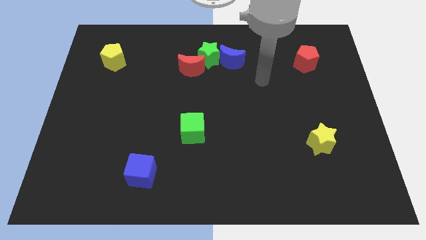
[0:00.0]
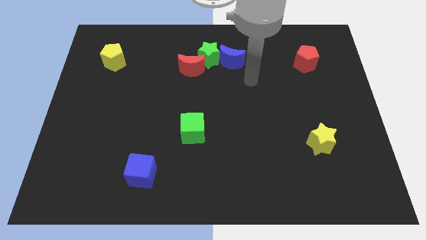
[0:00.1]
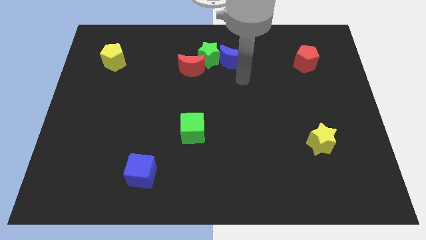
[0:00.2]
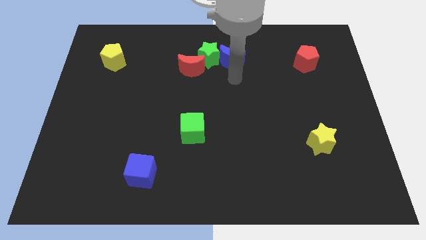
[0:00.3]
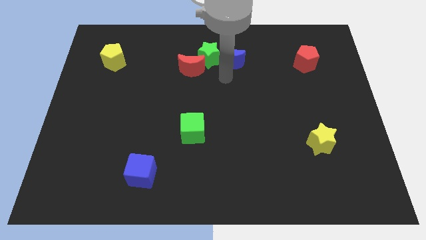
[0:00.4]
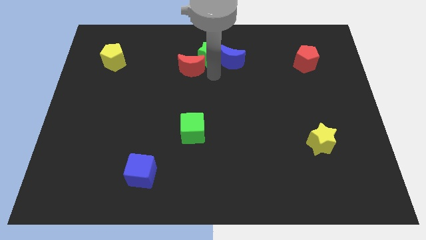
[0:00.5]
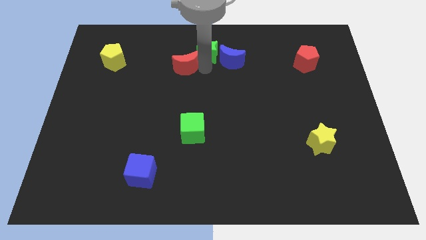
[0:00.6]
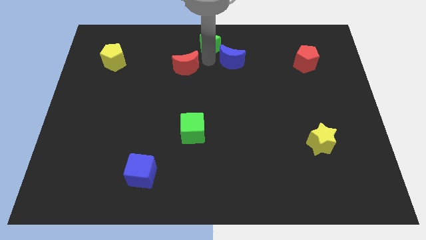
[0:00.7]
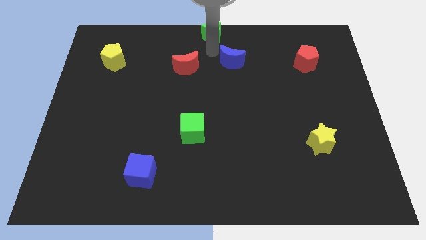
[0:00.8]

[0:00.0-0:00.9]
move the blue moon away from the green star

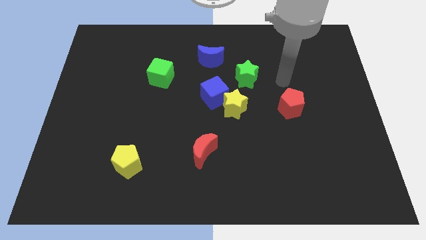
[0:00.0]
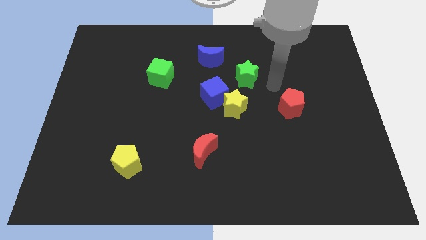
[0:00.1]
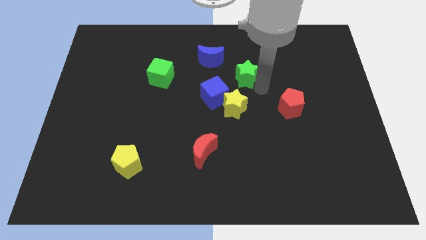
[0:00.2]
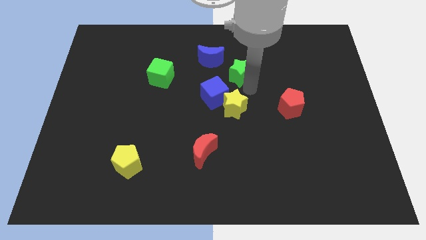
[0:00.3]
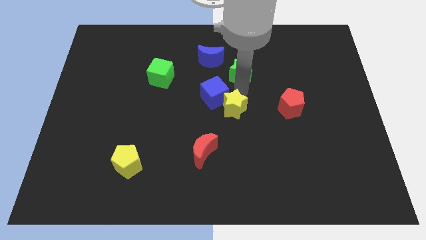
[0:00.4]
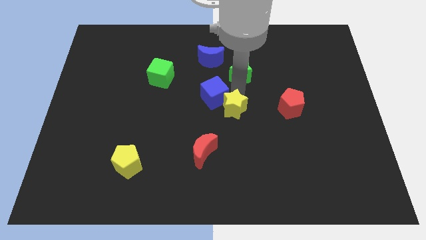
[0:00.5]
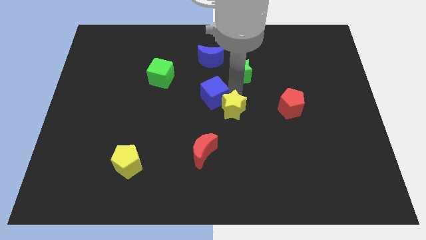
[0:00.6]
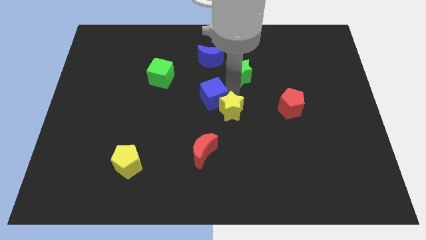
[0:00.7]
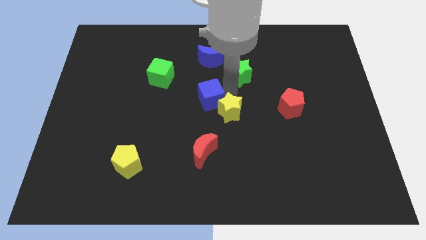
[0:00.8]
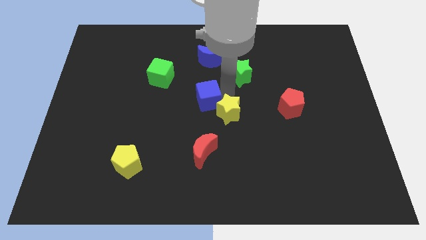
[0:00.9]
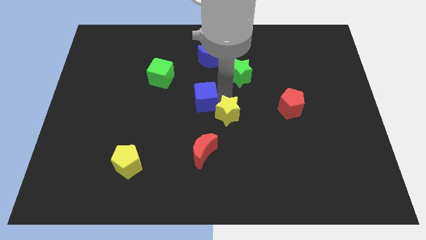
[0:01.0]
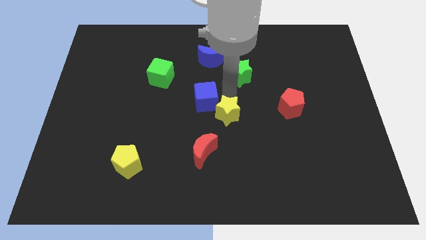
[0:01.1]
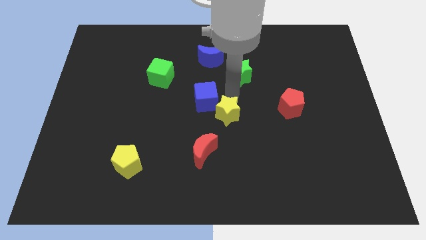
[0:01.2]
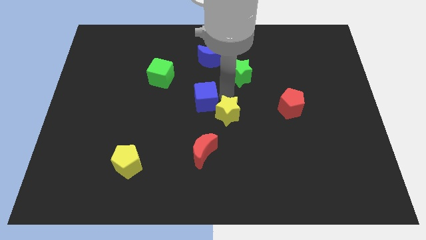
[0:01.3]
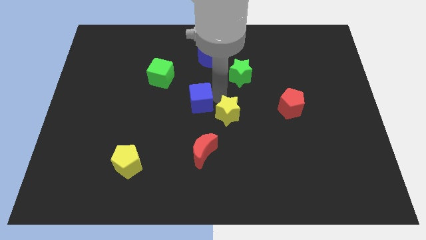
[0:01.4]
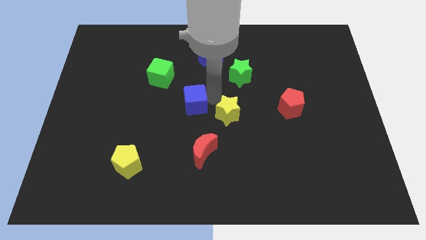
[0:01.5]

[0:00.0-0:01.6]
separate the blue cube from the yellow star and green star

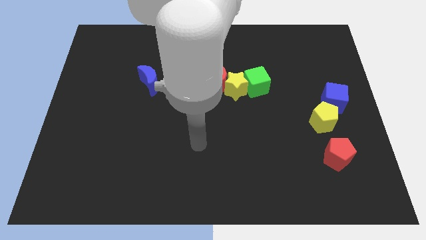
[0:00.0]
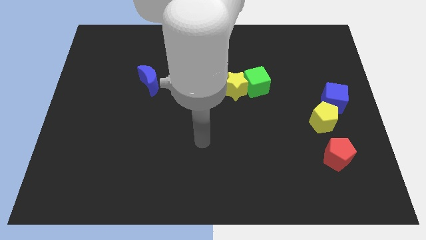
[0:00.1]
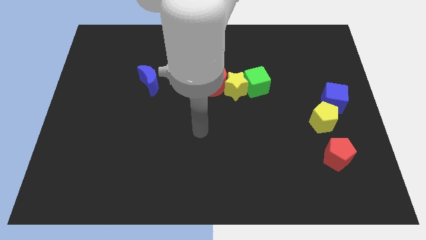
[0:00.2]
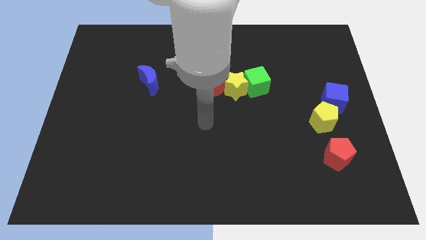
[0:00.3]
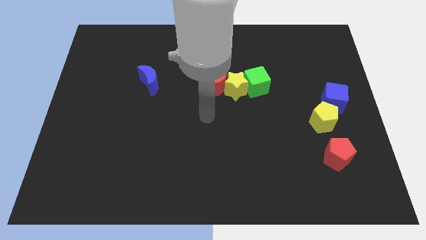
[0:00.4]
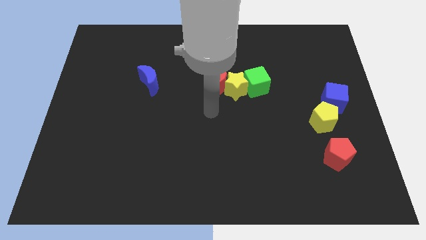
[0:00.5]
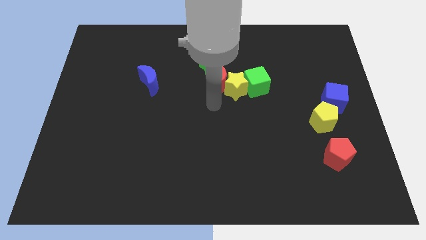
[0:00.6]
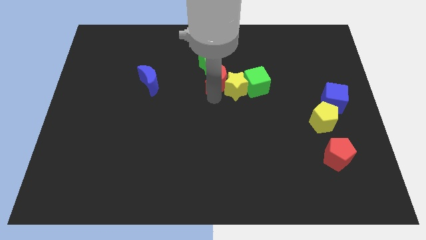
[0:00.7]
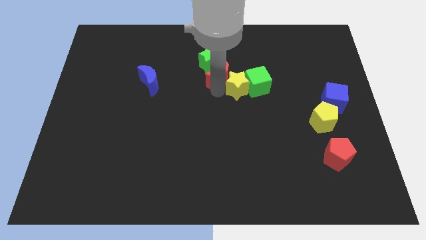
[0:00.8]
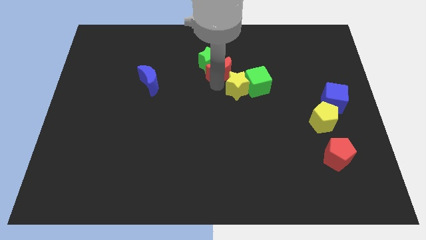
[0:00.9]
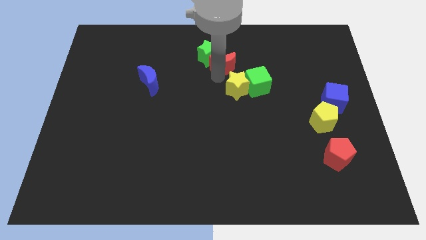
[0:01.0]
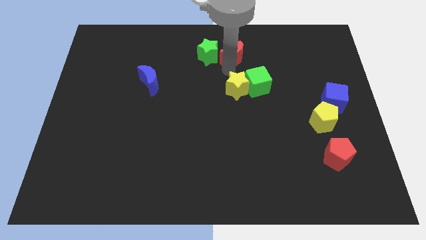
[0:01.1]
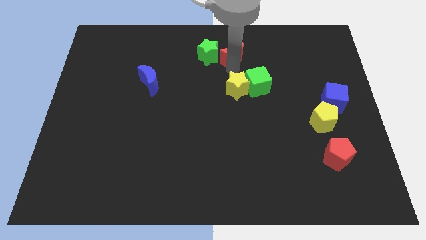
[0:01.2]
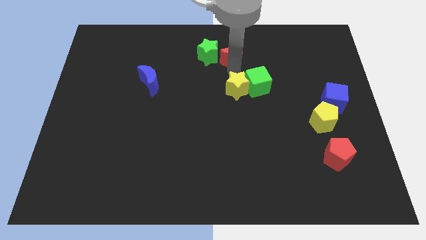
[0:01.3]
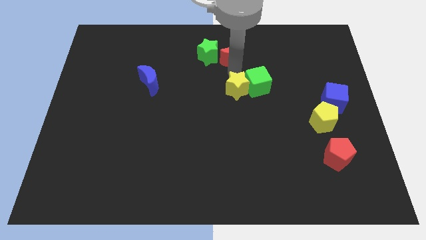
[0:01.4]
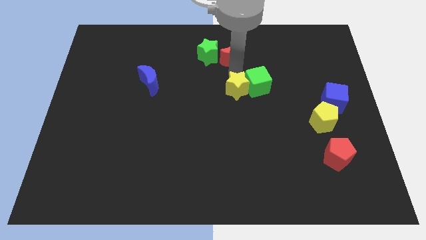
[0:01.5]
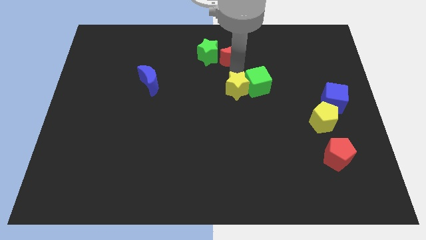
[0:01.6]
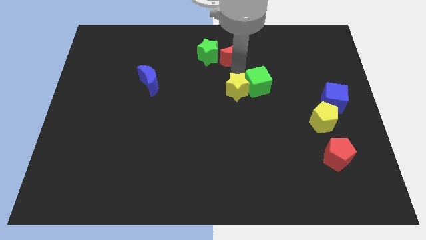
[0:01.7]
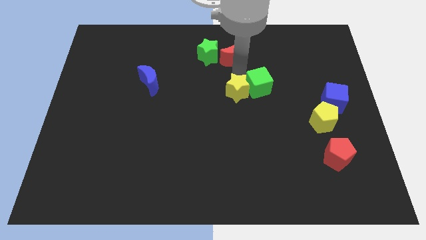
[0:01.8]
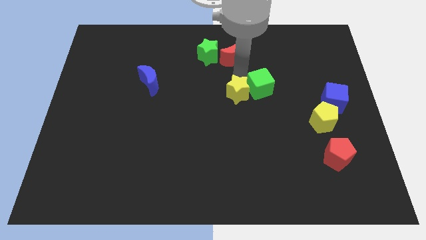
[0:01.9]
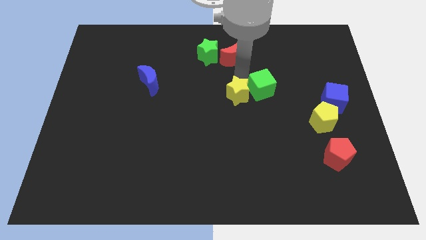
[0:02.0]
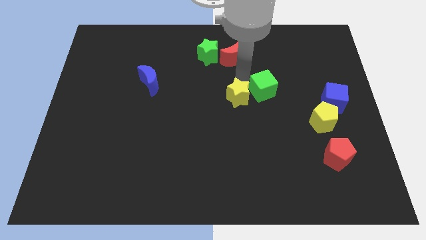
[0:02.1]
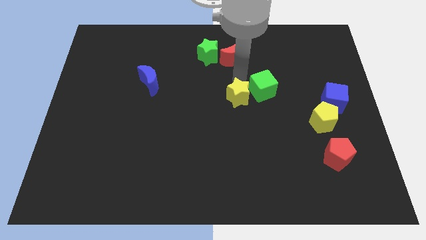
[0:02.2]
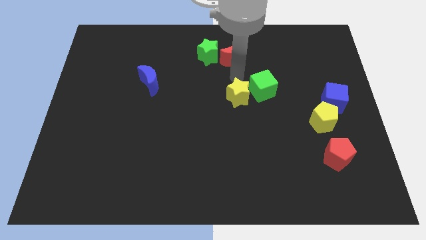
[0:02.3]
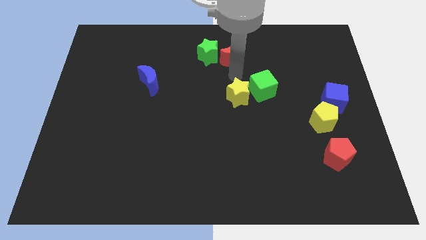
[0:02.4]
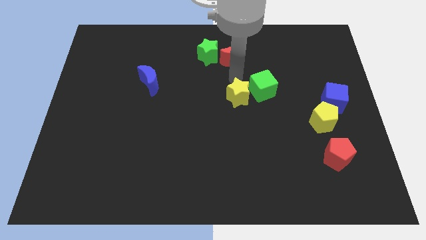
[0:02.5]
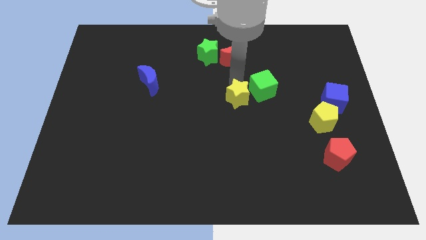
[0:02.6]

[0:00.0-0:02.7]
pull the yellow star apart from the red moon, green cube, and green star

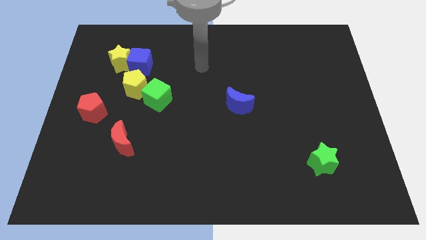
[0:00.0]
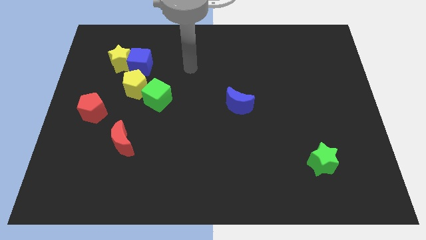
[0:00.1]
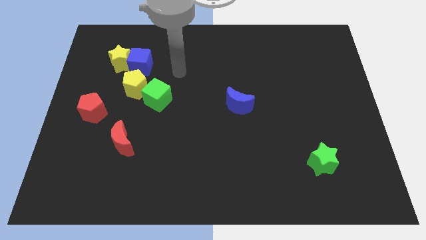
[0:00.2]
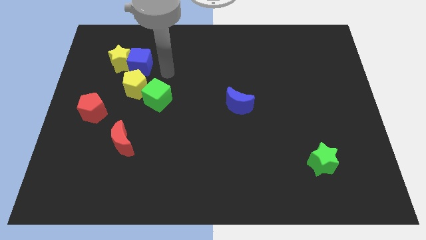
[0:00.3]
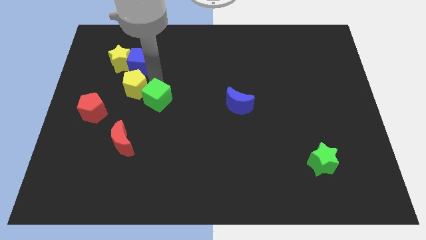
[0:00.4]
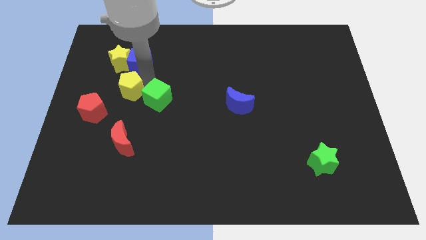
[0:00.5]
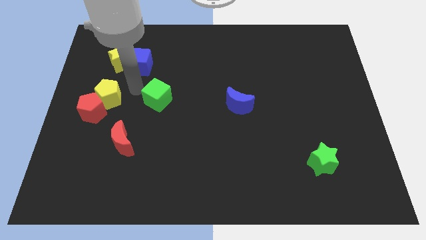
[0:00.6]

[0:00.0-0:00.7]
separate the green cube from the yellow pentagon

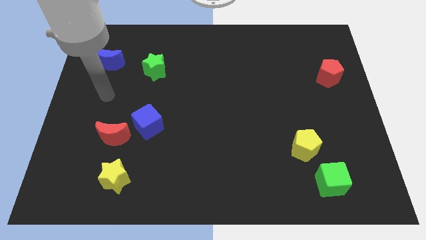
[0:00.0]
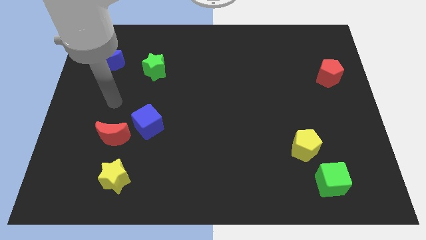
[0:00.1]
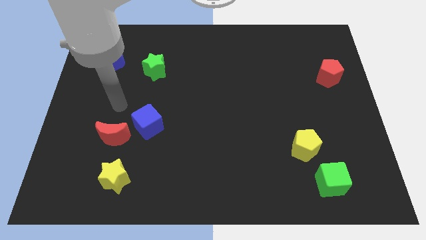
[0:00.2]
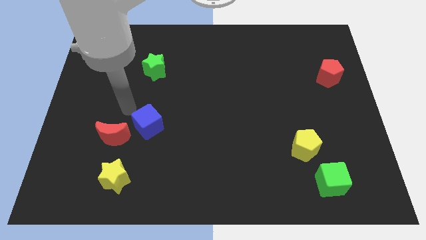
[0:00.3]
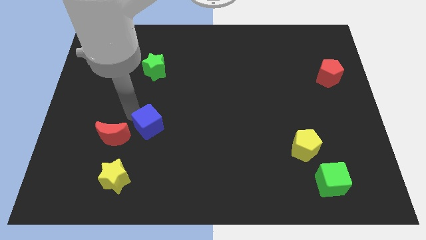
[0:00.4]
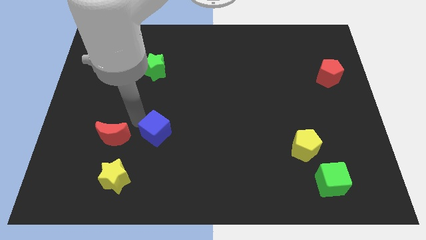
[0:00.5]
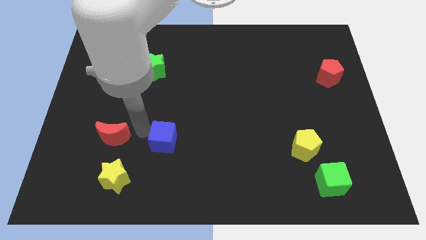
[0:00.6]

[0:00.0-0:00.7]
pull the red moon apart from the blue cube

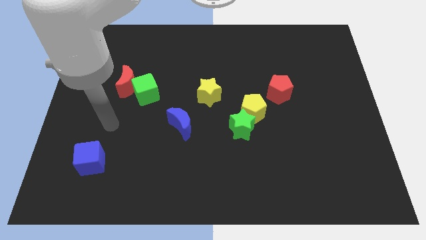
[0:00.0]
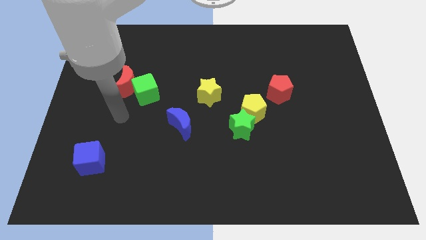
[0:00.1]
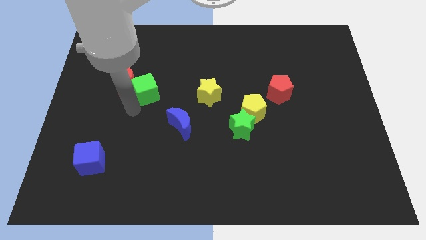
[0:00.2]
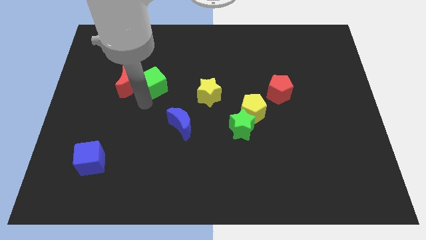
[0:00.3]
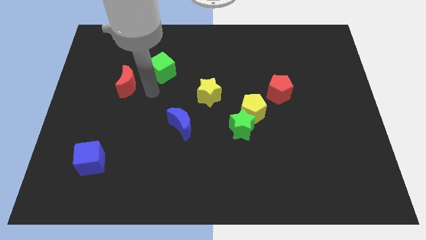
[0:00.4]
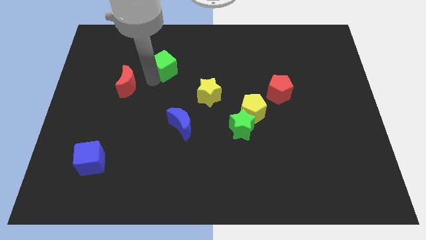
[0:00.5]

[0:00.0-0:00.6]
move the red moon away from the green cube

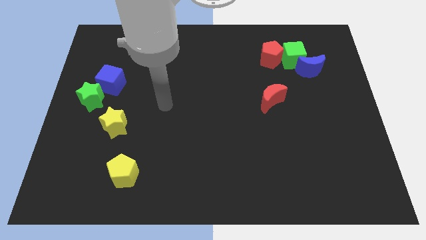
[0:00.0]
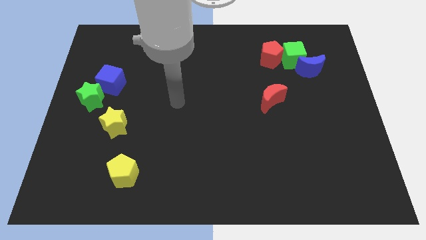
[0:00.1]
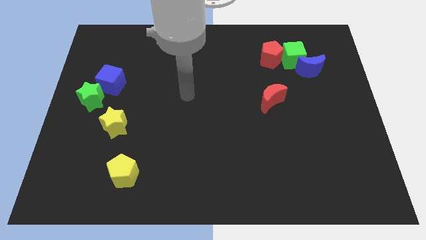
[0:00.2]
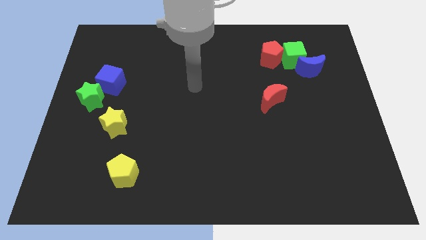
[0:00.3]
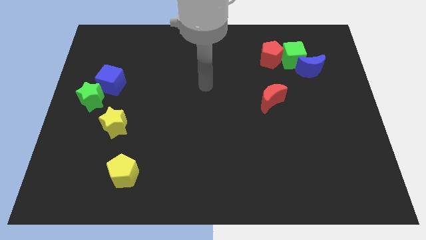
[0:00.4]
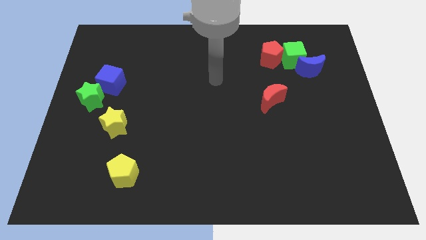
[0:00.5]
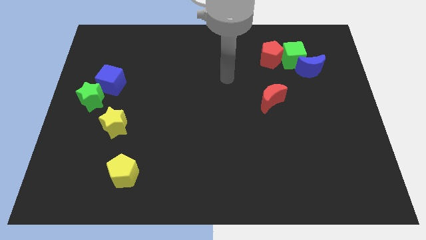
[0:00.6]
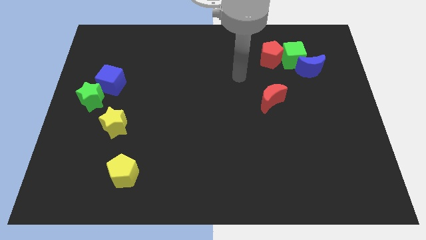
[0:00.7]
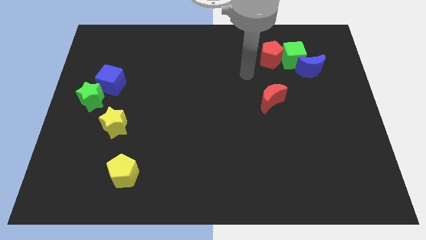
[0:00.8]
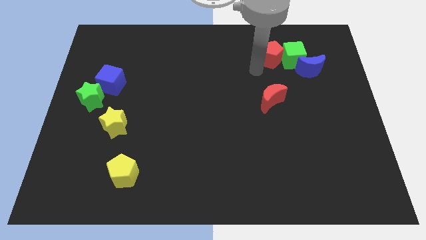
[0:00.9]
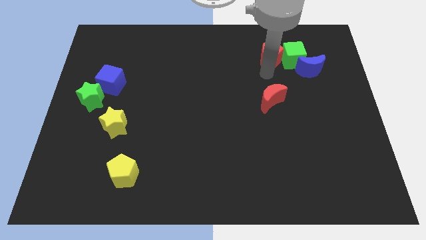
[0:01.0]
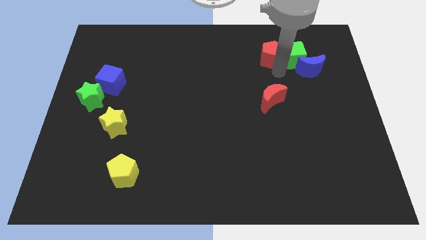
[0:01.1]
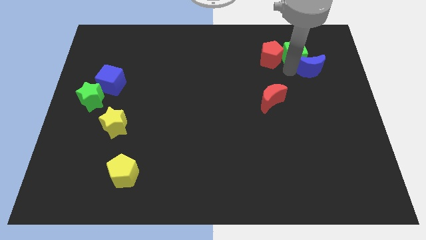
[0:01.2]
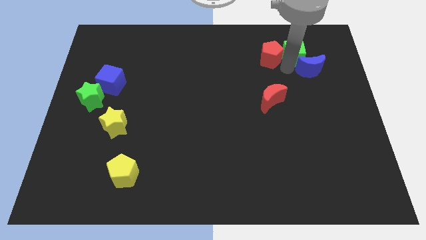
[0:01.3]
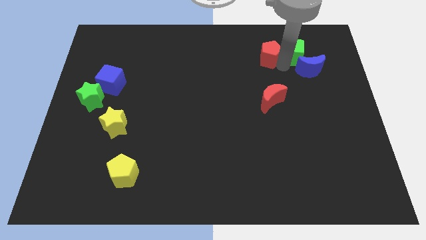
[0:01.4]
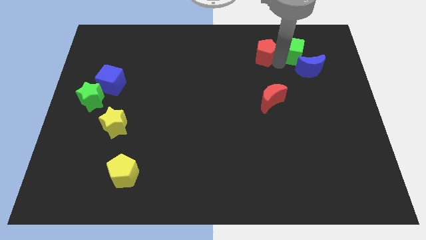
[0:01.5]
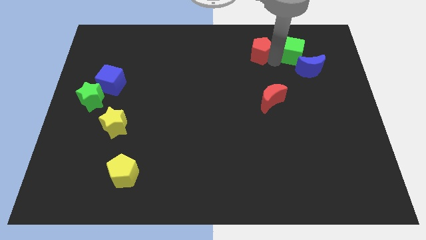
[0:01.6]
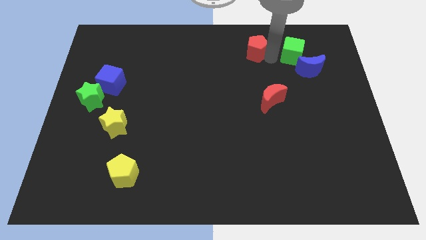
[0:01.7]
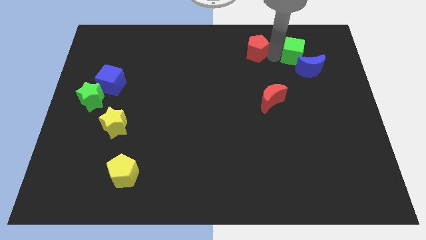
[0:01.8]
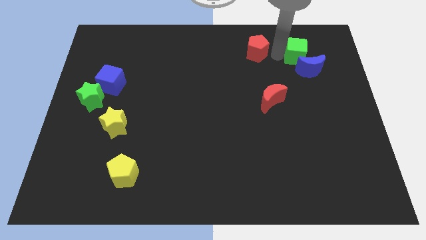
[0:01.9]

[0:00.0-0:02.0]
move the red pentagon away from the green cube

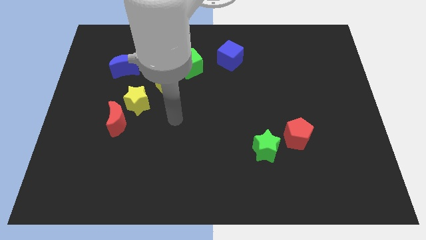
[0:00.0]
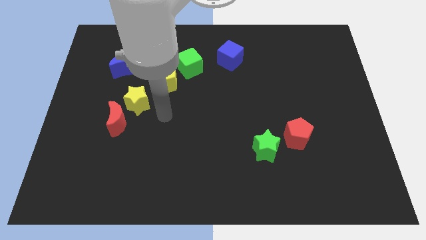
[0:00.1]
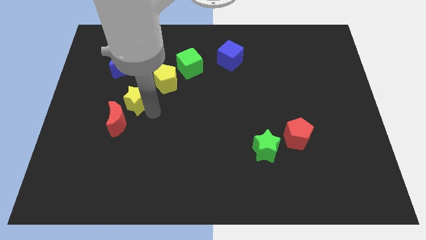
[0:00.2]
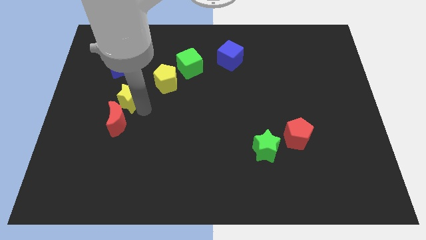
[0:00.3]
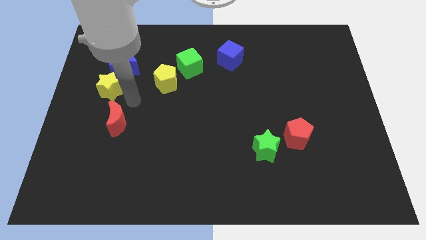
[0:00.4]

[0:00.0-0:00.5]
pull the red moon apart from the yellow star
